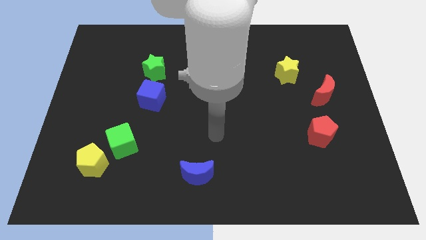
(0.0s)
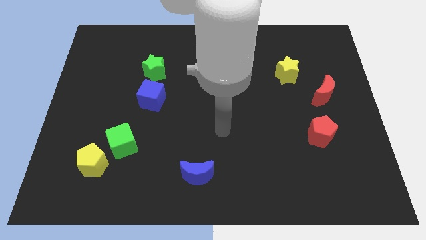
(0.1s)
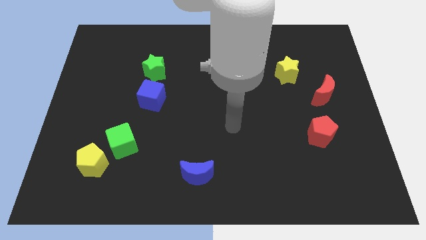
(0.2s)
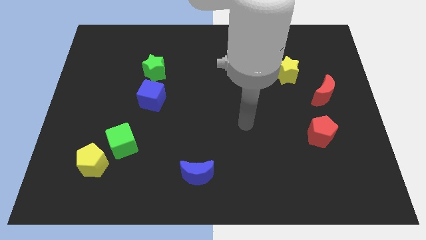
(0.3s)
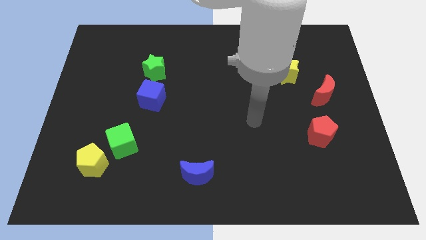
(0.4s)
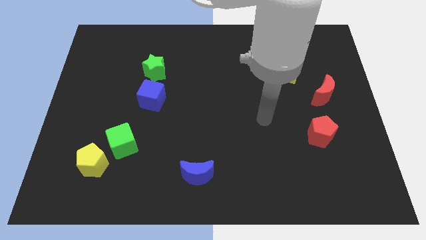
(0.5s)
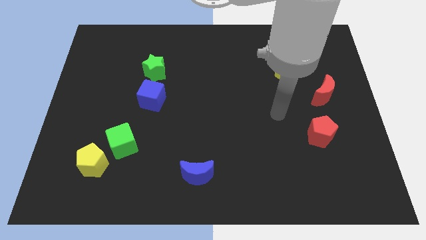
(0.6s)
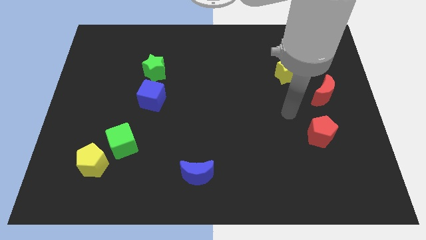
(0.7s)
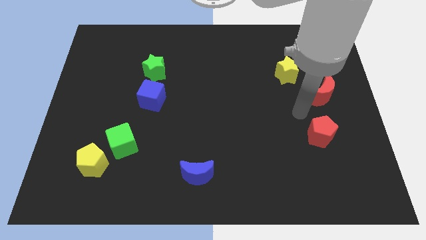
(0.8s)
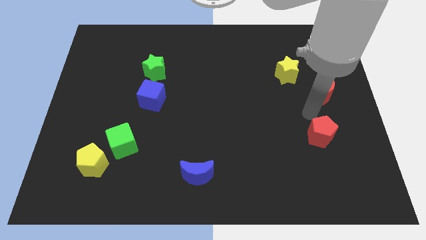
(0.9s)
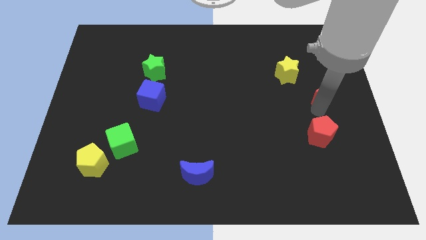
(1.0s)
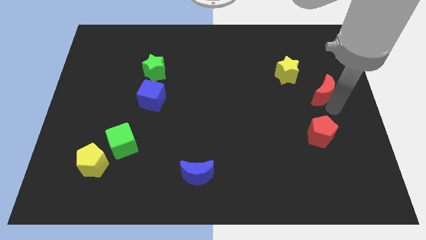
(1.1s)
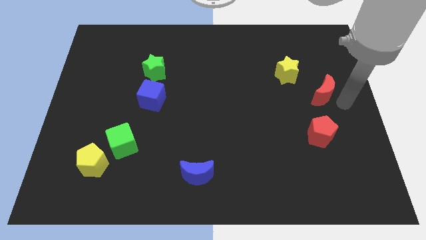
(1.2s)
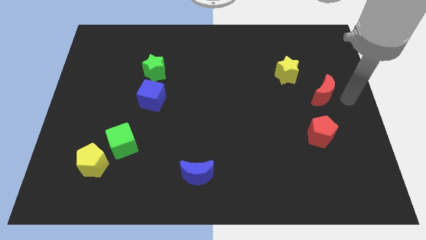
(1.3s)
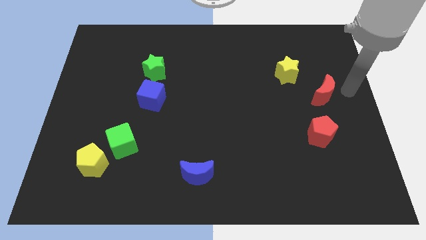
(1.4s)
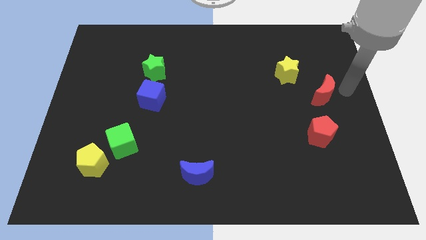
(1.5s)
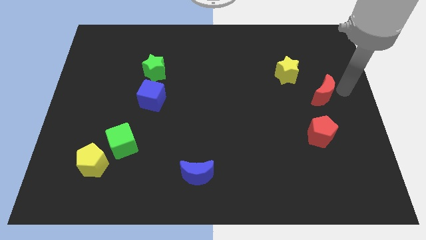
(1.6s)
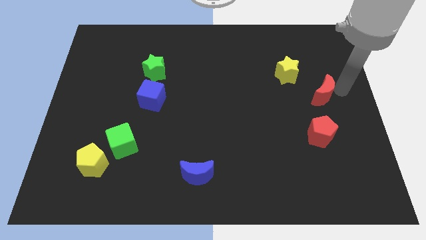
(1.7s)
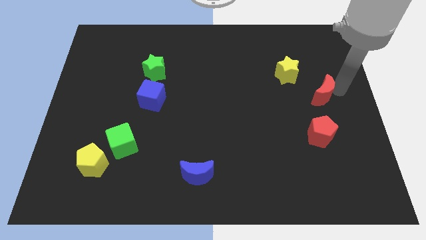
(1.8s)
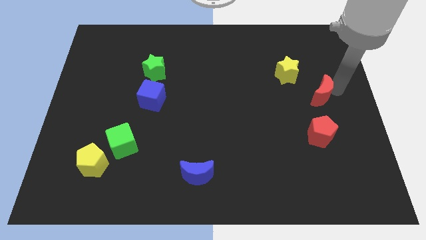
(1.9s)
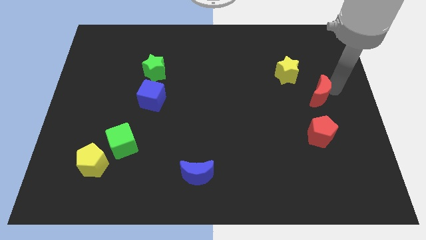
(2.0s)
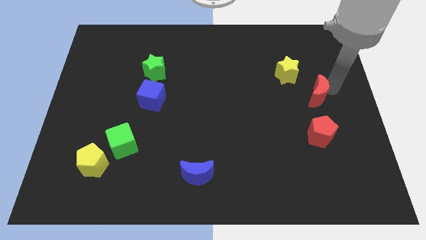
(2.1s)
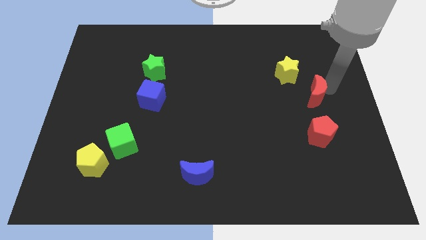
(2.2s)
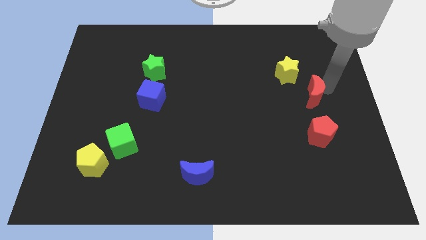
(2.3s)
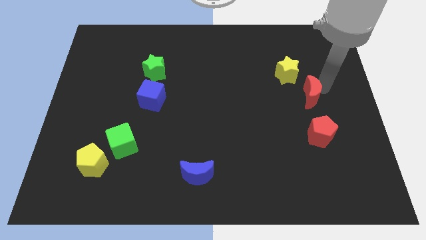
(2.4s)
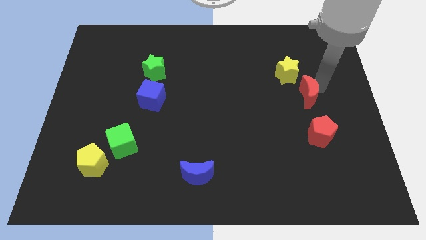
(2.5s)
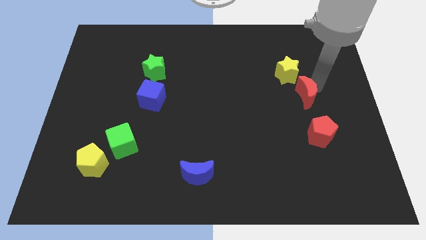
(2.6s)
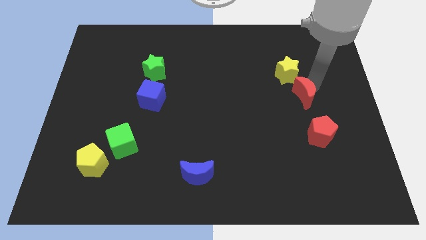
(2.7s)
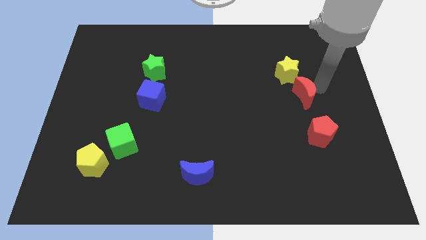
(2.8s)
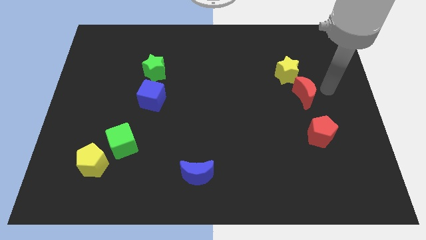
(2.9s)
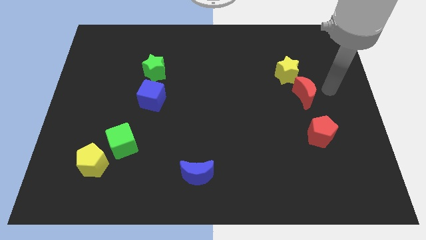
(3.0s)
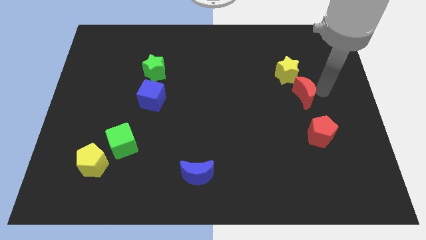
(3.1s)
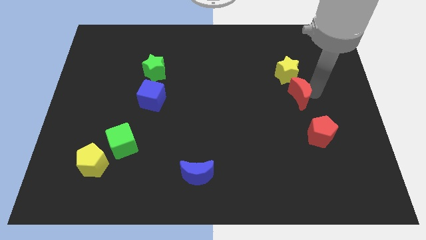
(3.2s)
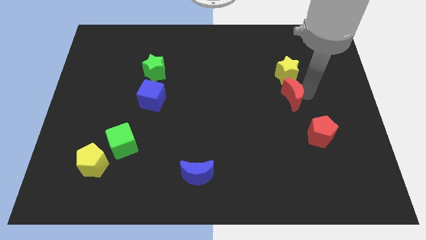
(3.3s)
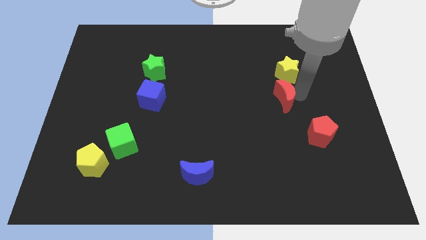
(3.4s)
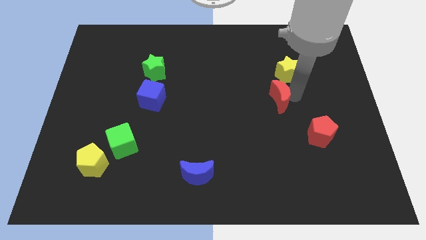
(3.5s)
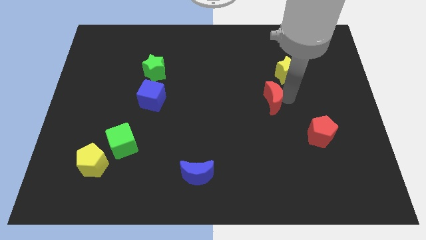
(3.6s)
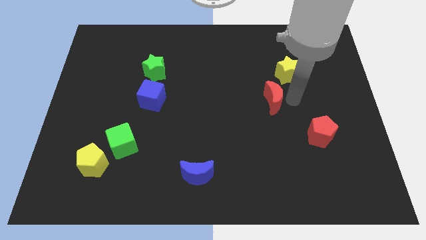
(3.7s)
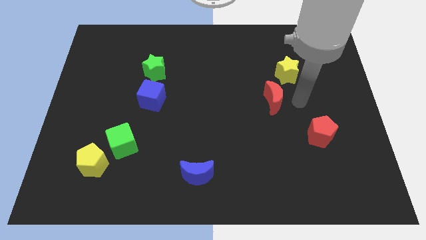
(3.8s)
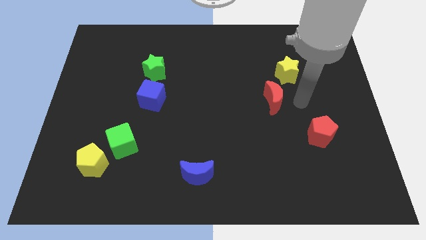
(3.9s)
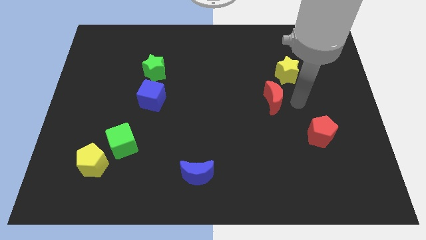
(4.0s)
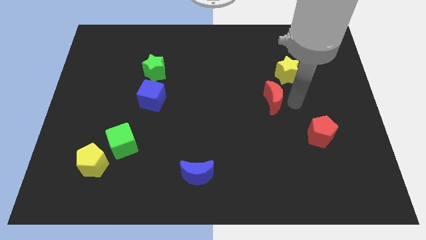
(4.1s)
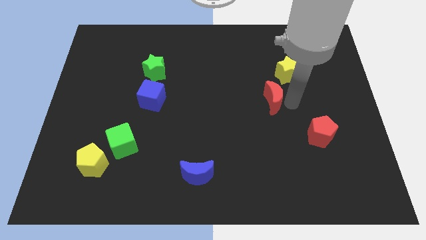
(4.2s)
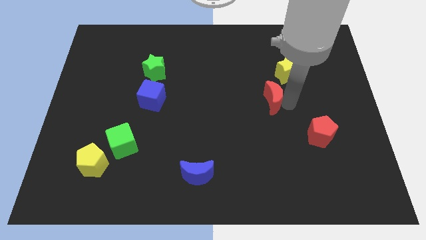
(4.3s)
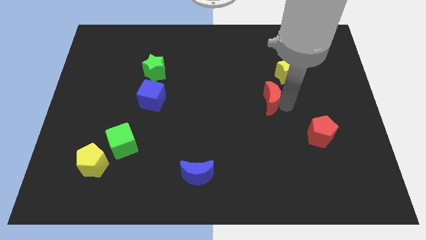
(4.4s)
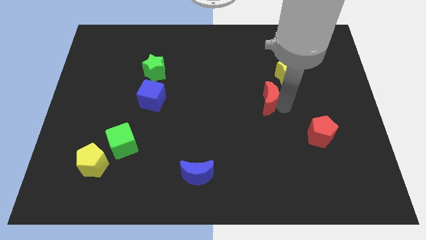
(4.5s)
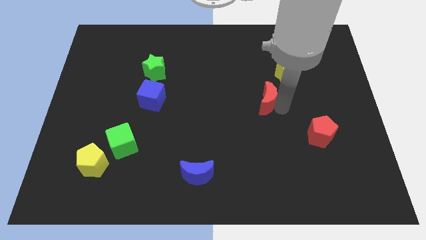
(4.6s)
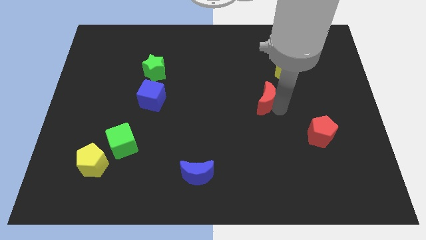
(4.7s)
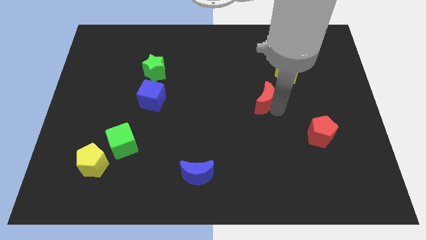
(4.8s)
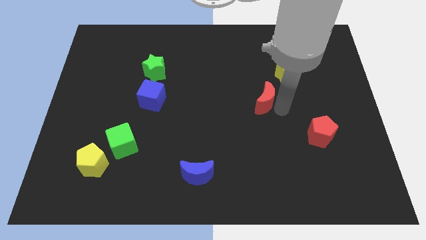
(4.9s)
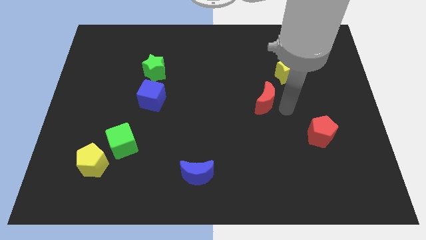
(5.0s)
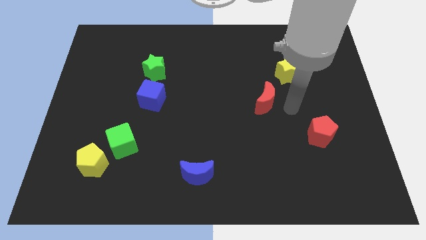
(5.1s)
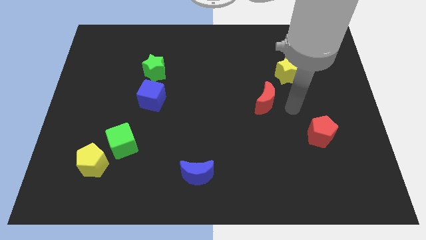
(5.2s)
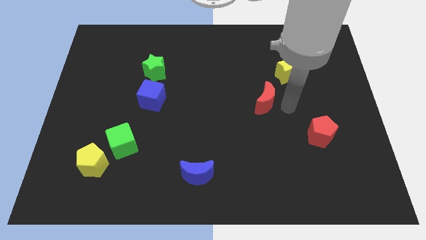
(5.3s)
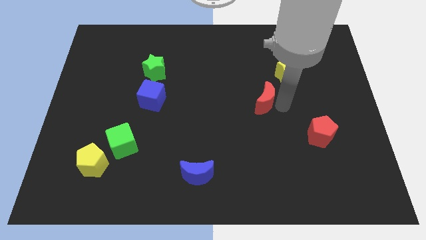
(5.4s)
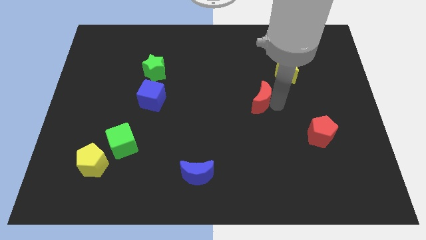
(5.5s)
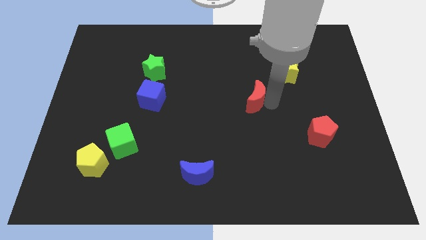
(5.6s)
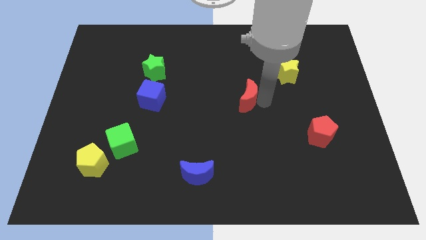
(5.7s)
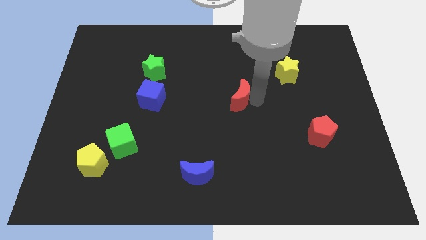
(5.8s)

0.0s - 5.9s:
push the red moon to the left

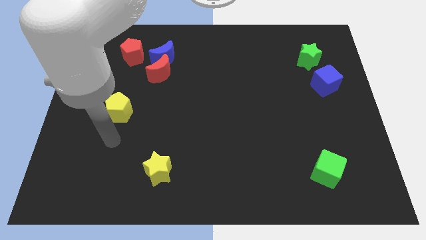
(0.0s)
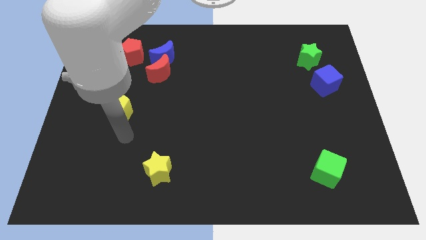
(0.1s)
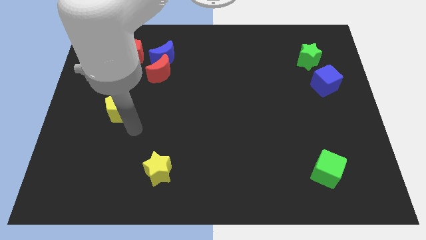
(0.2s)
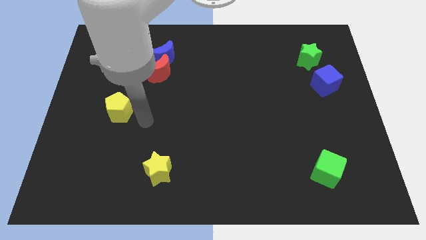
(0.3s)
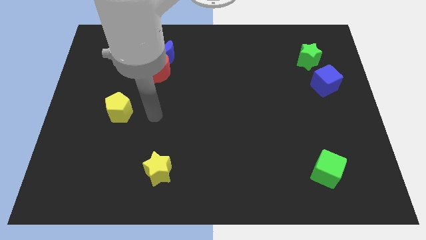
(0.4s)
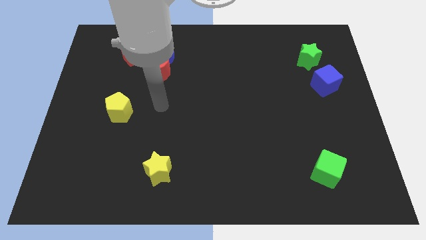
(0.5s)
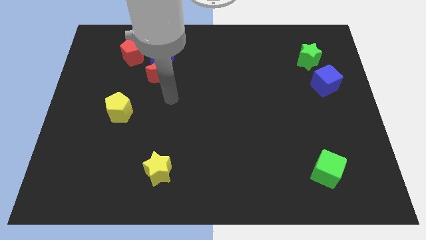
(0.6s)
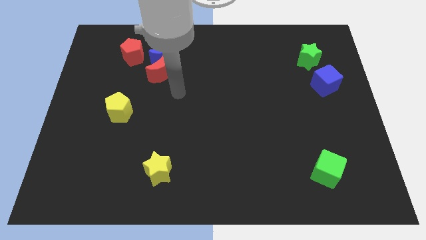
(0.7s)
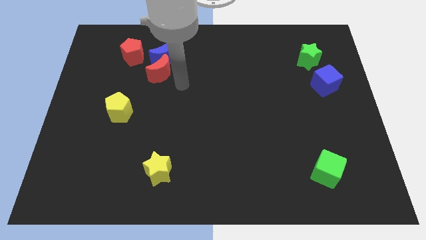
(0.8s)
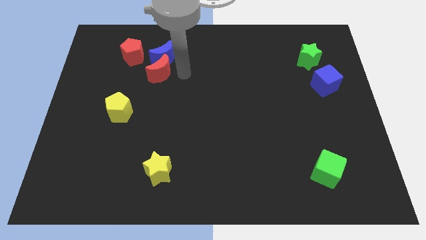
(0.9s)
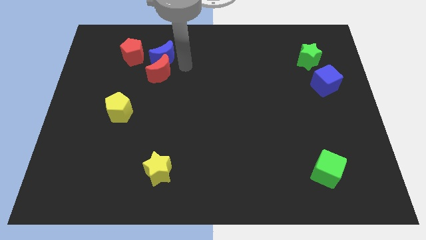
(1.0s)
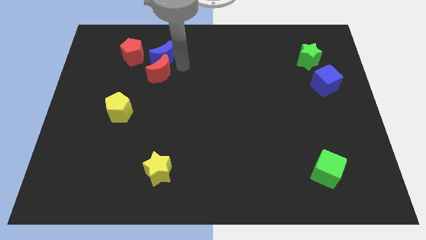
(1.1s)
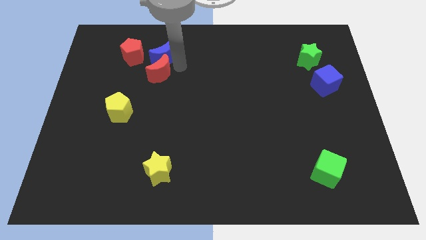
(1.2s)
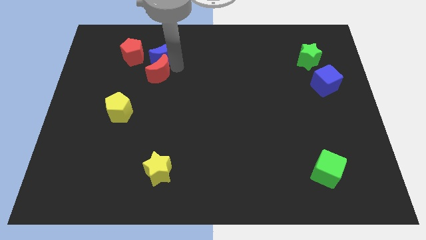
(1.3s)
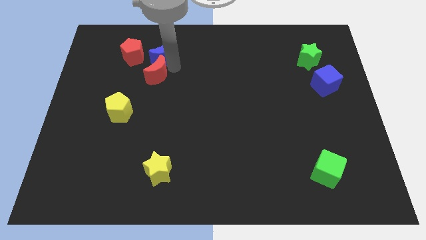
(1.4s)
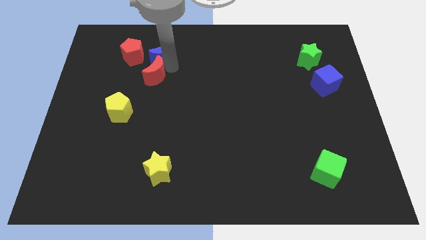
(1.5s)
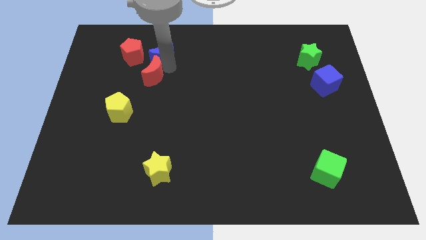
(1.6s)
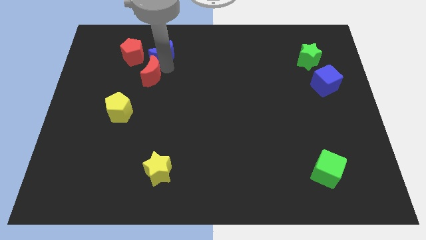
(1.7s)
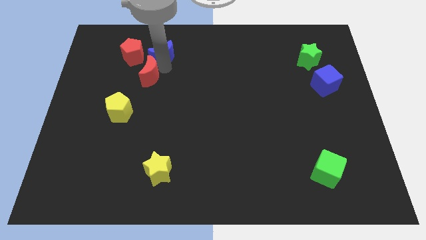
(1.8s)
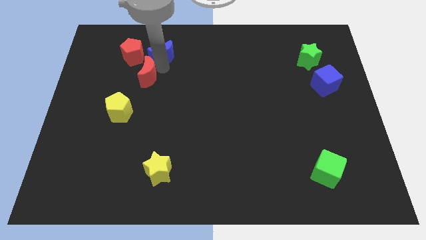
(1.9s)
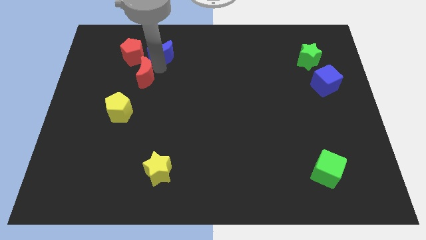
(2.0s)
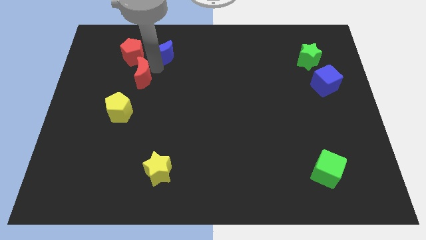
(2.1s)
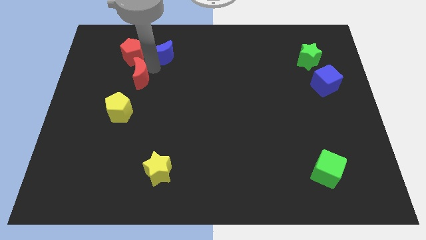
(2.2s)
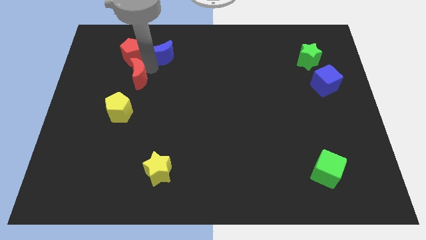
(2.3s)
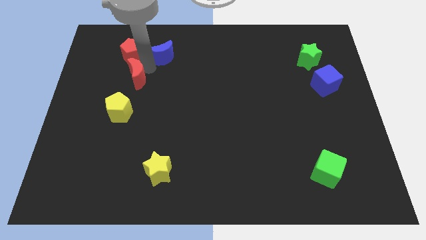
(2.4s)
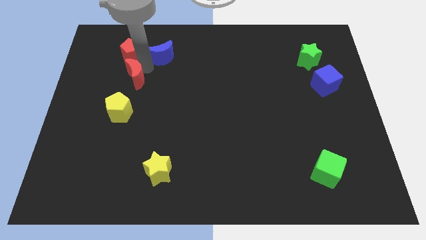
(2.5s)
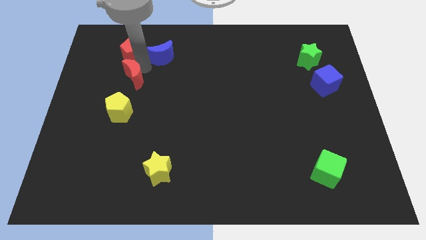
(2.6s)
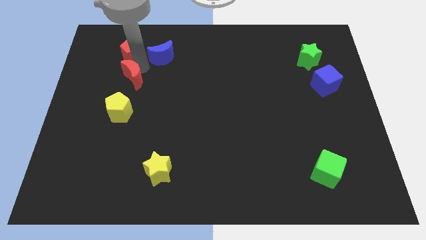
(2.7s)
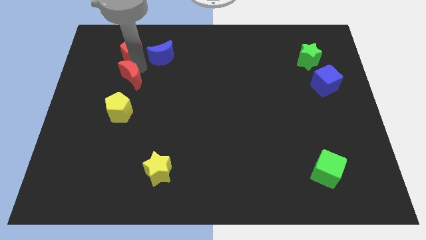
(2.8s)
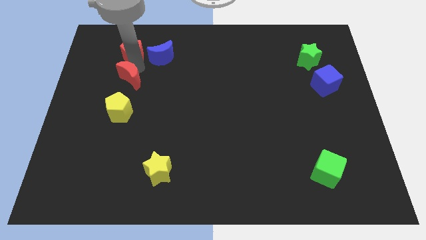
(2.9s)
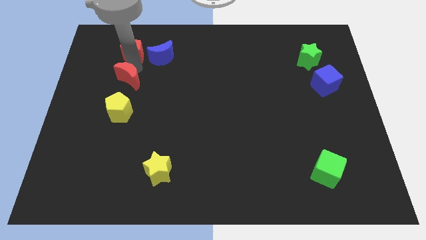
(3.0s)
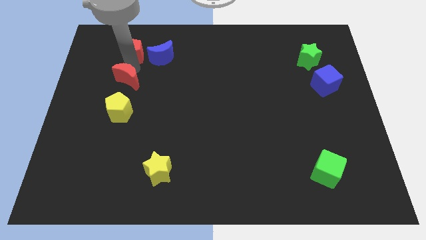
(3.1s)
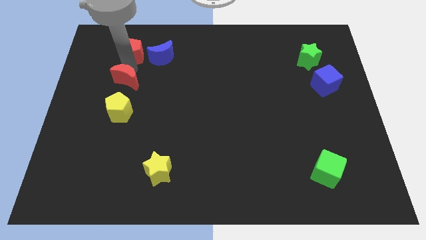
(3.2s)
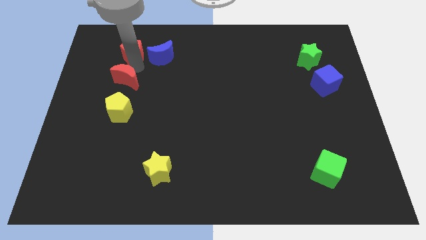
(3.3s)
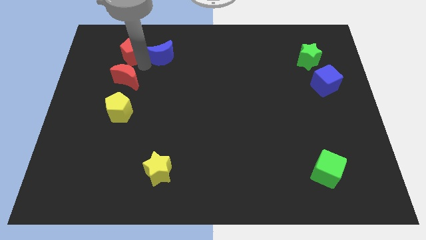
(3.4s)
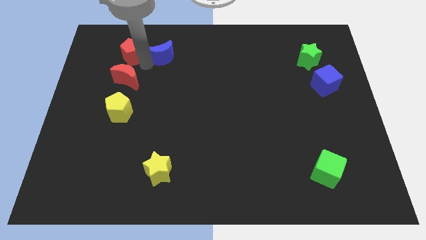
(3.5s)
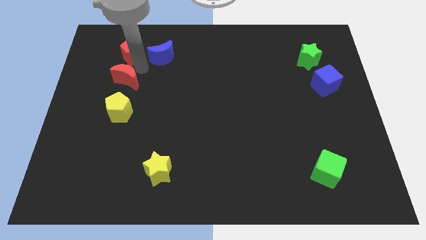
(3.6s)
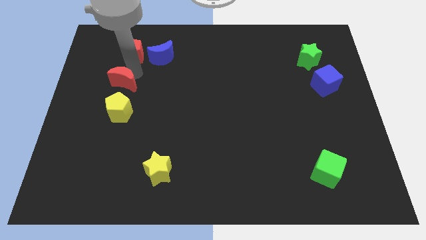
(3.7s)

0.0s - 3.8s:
push the red moon diagonally down and to the left a bit
